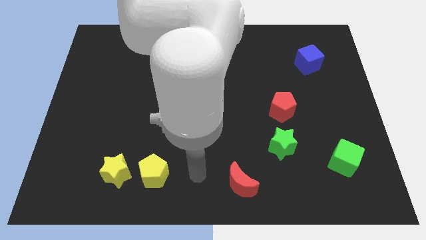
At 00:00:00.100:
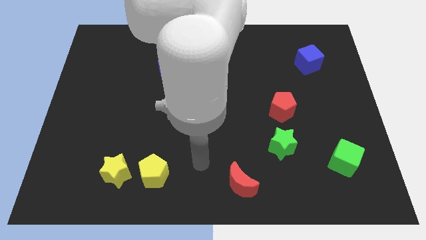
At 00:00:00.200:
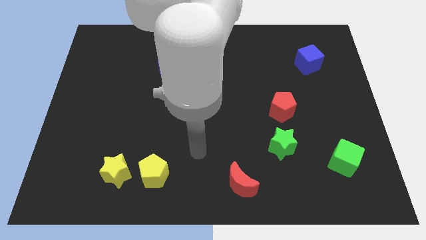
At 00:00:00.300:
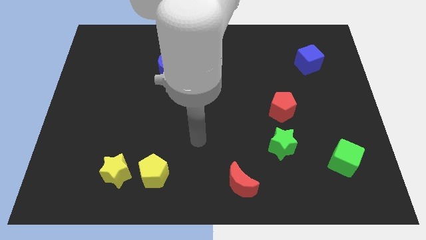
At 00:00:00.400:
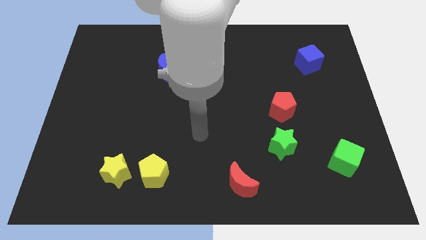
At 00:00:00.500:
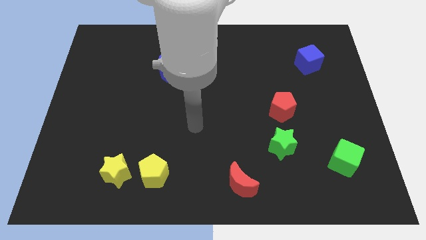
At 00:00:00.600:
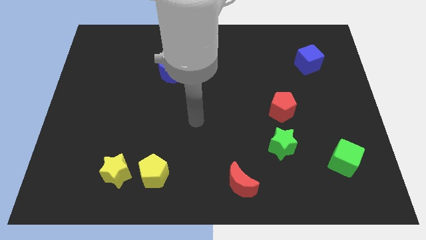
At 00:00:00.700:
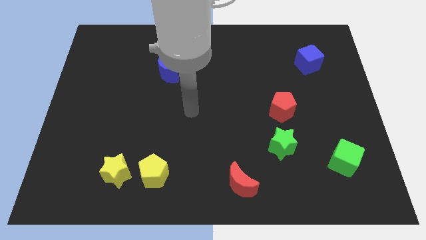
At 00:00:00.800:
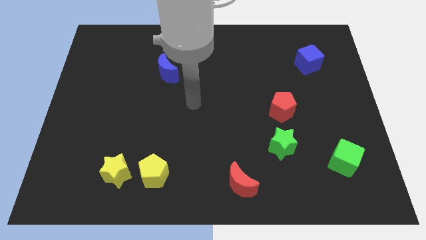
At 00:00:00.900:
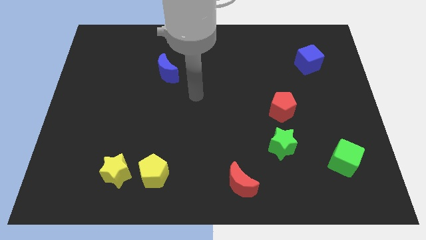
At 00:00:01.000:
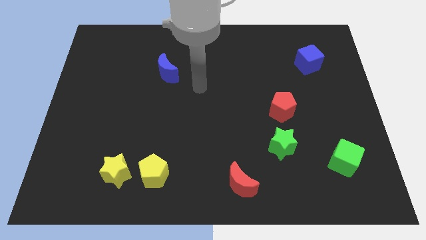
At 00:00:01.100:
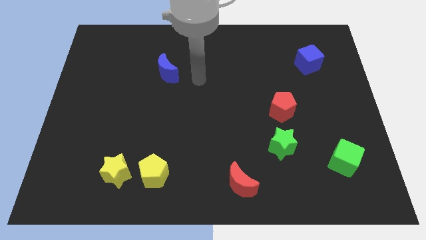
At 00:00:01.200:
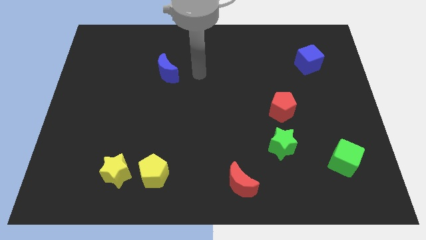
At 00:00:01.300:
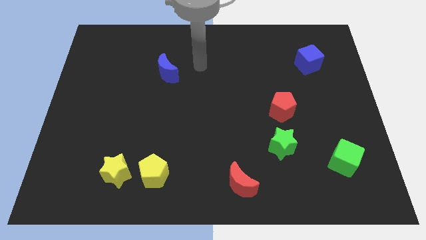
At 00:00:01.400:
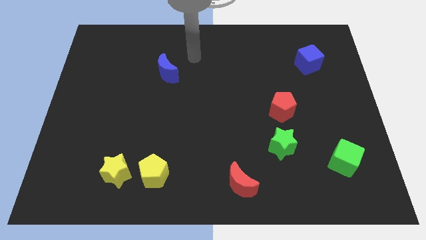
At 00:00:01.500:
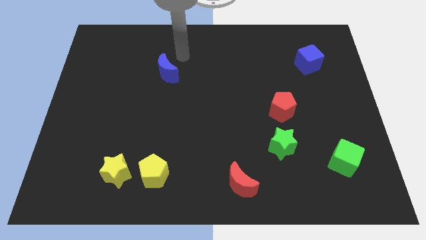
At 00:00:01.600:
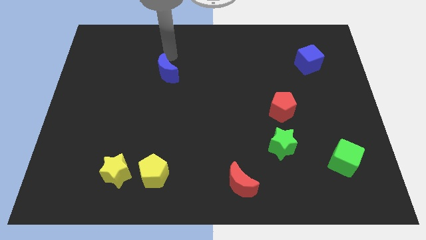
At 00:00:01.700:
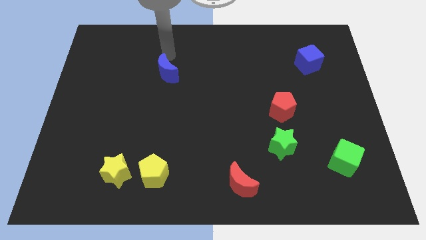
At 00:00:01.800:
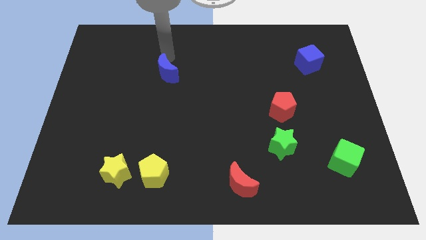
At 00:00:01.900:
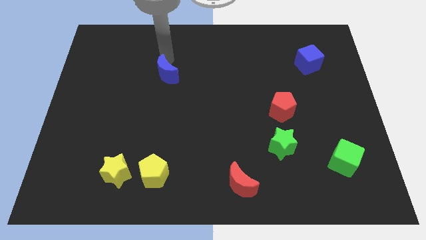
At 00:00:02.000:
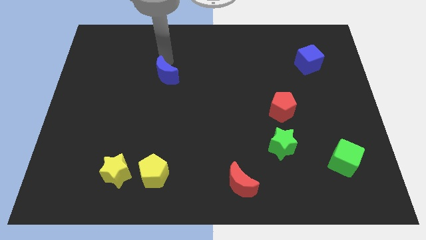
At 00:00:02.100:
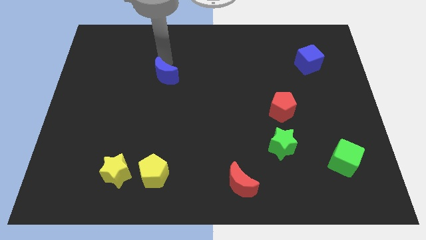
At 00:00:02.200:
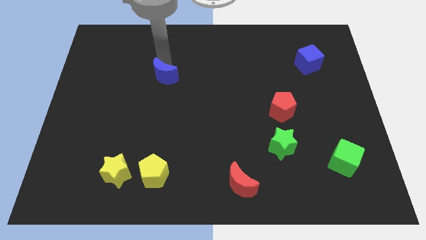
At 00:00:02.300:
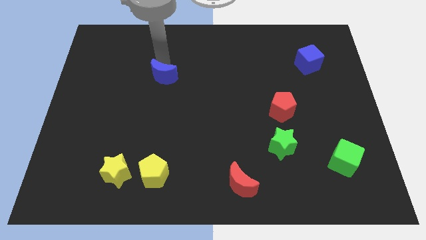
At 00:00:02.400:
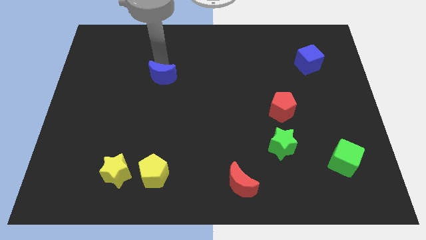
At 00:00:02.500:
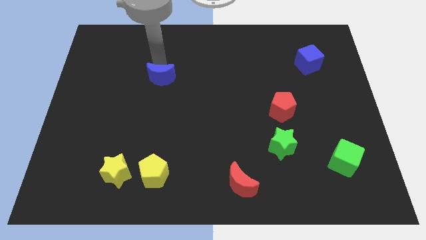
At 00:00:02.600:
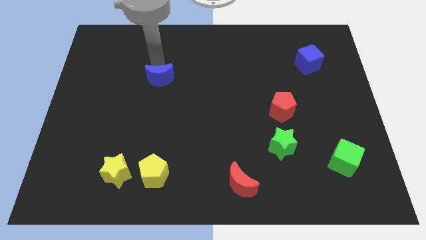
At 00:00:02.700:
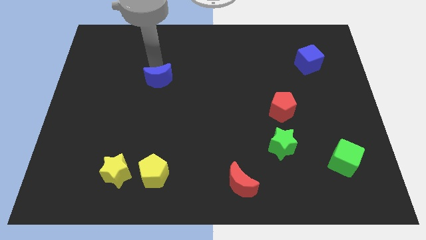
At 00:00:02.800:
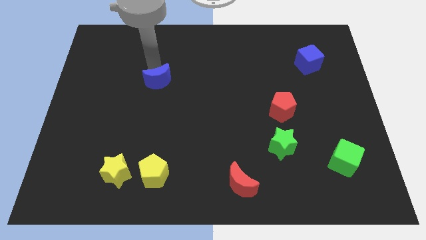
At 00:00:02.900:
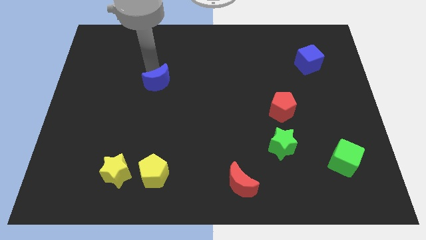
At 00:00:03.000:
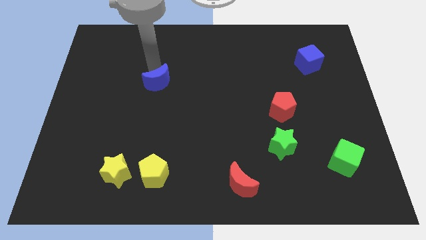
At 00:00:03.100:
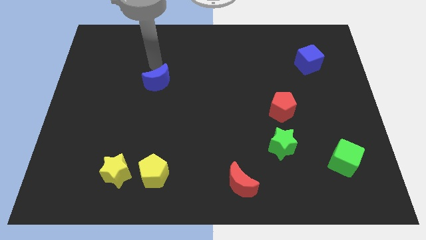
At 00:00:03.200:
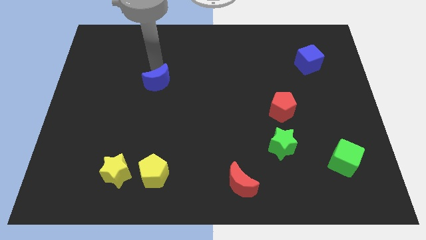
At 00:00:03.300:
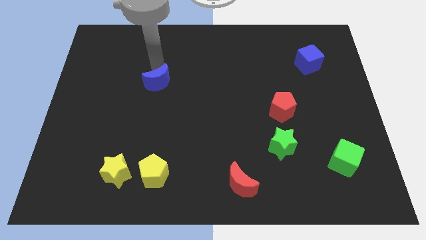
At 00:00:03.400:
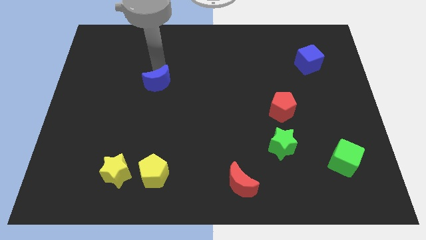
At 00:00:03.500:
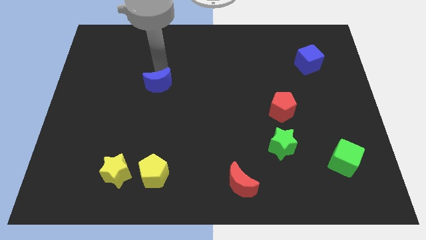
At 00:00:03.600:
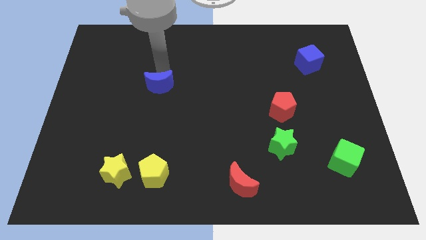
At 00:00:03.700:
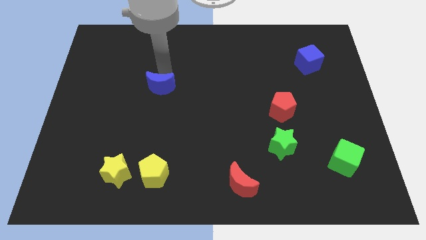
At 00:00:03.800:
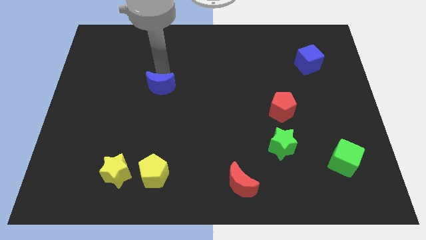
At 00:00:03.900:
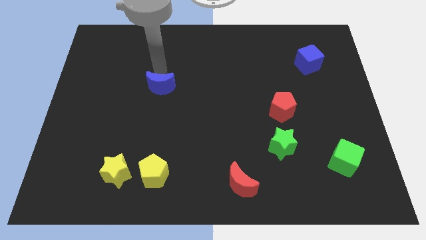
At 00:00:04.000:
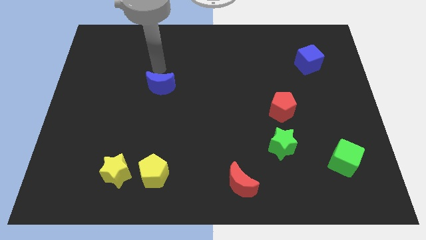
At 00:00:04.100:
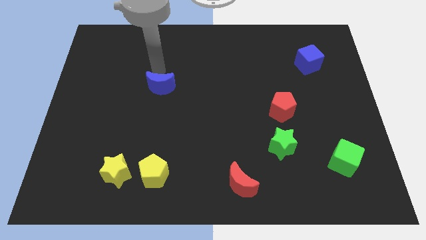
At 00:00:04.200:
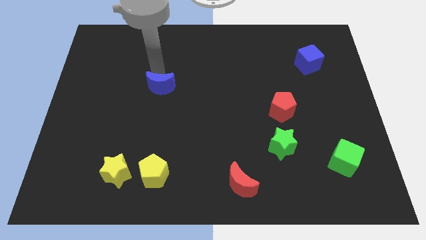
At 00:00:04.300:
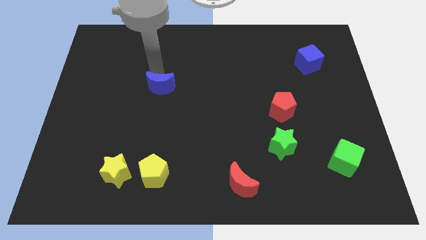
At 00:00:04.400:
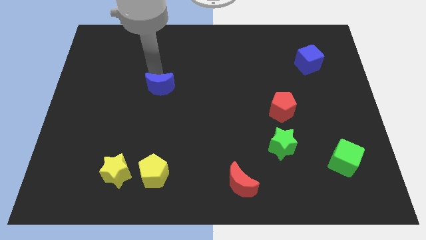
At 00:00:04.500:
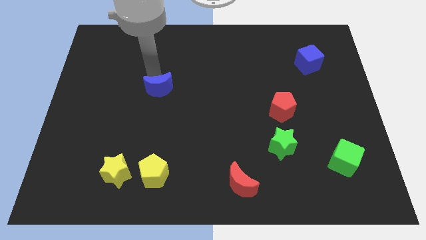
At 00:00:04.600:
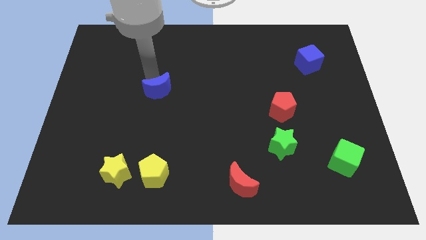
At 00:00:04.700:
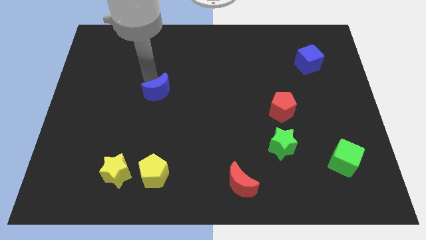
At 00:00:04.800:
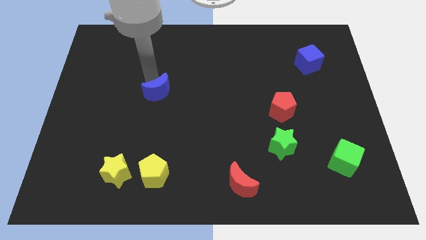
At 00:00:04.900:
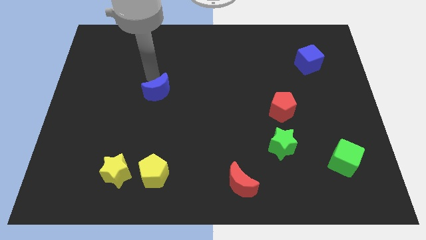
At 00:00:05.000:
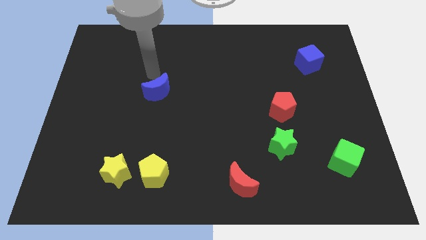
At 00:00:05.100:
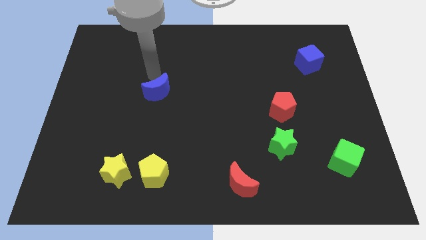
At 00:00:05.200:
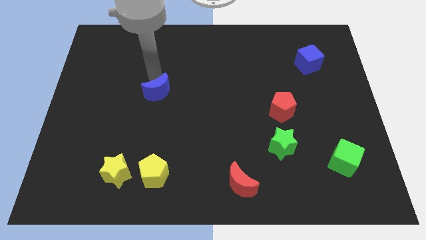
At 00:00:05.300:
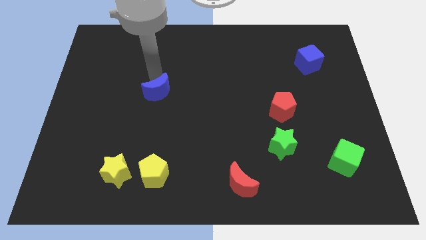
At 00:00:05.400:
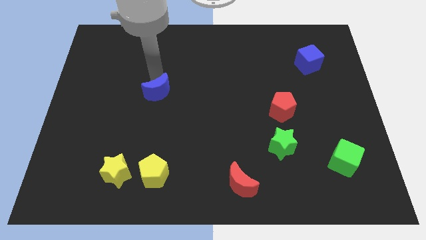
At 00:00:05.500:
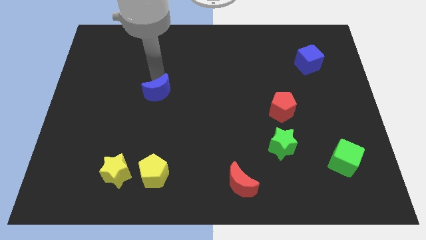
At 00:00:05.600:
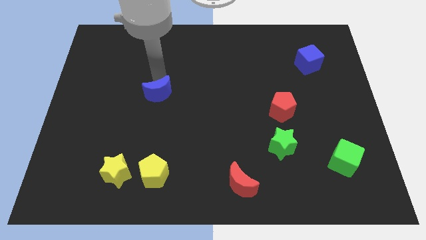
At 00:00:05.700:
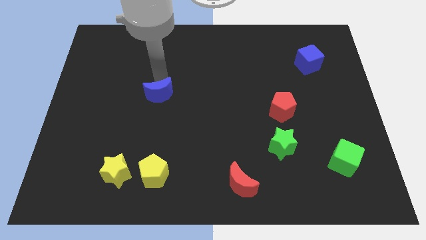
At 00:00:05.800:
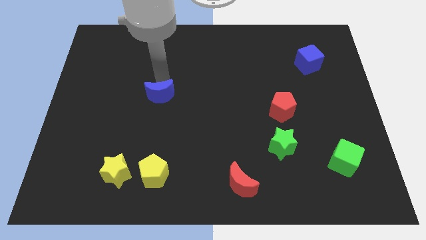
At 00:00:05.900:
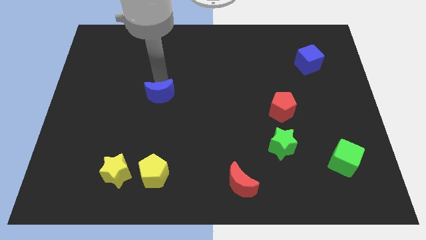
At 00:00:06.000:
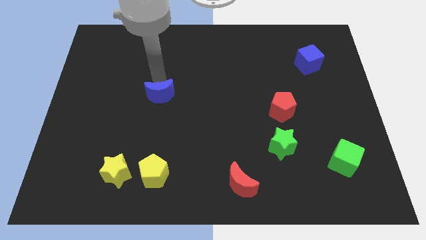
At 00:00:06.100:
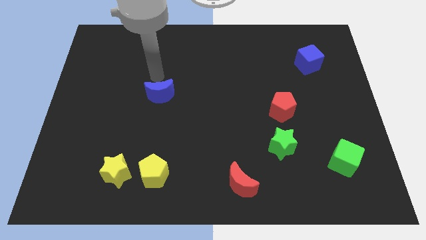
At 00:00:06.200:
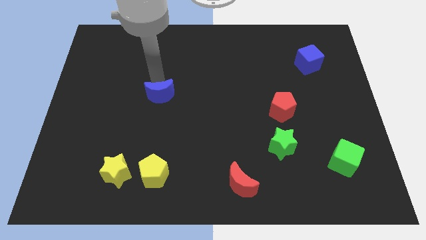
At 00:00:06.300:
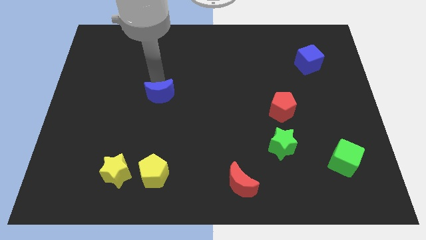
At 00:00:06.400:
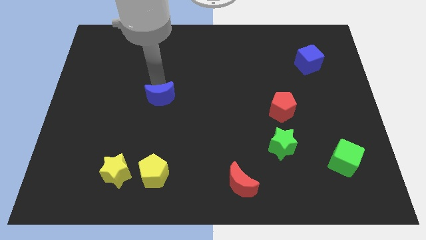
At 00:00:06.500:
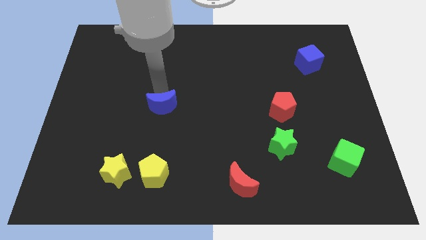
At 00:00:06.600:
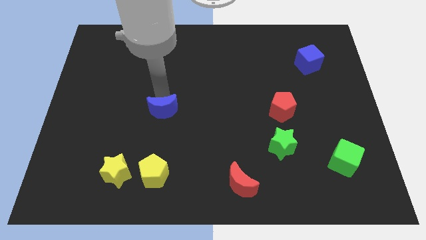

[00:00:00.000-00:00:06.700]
push the blue moon to the top of the yellow pentagon

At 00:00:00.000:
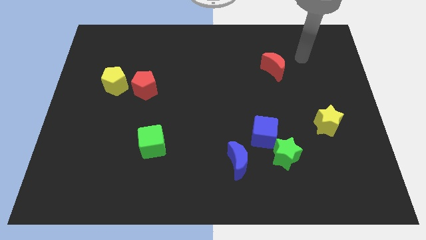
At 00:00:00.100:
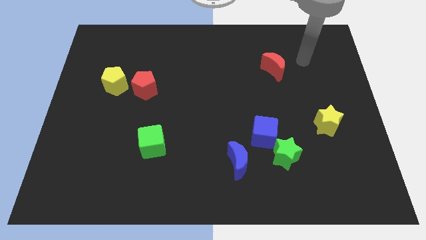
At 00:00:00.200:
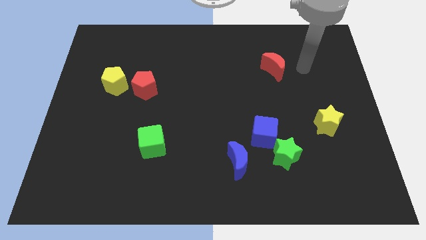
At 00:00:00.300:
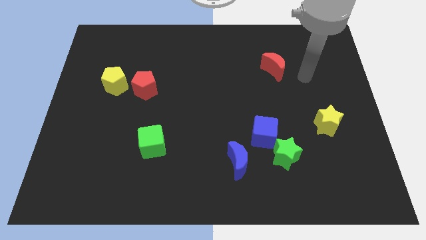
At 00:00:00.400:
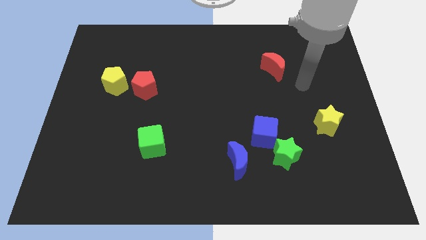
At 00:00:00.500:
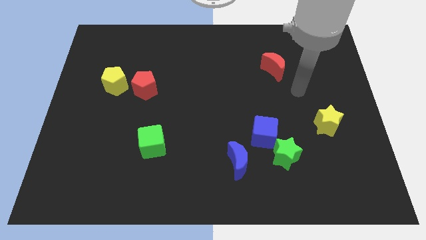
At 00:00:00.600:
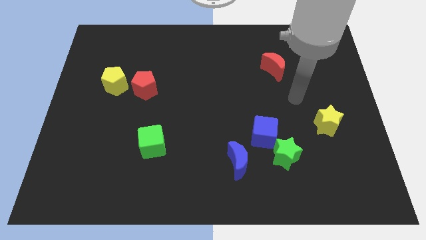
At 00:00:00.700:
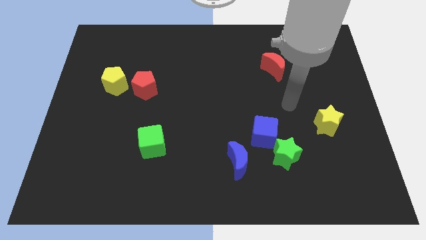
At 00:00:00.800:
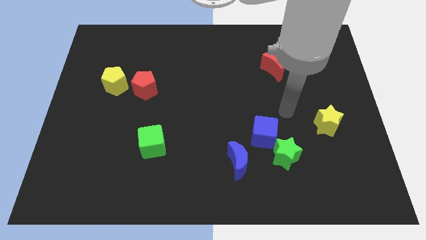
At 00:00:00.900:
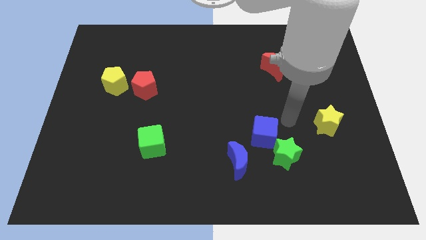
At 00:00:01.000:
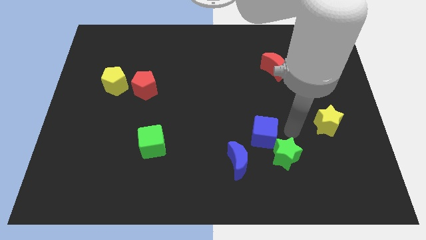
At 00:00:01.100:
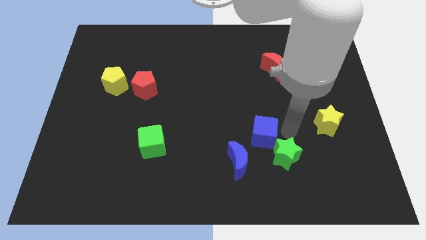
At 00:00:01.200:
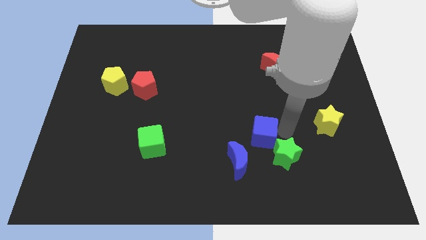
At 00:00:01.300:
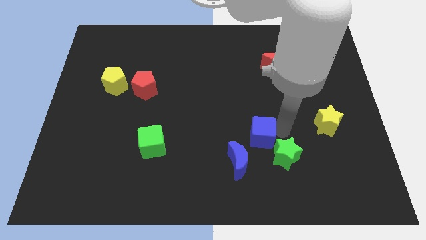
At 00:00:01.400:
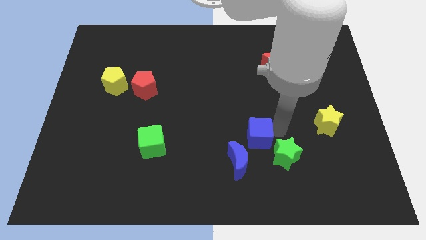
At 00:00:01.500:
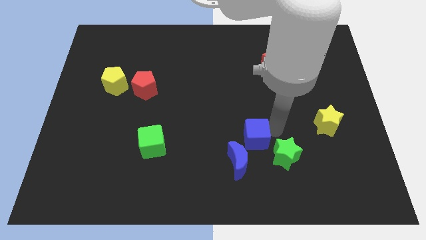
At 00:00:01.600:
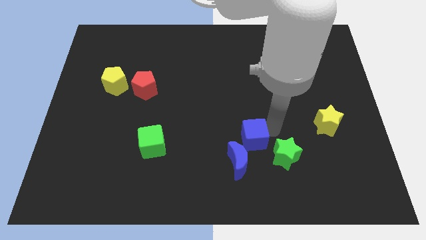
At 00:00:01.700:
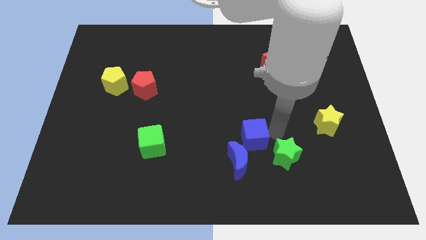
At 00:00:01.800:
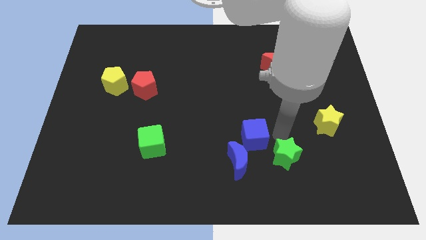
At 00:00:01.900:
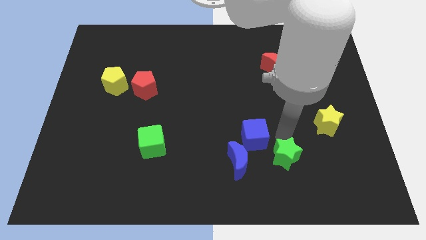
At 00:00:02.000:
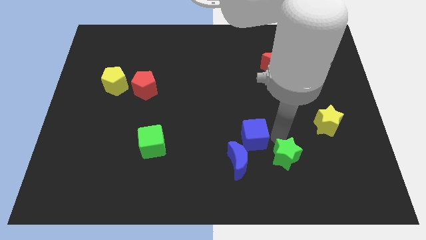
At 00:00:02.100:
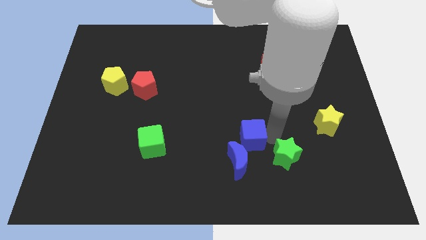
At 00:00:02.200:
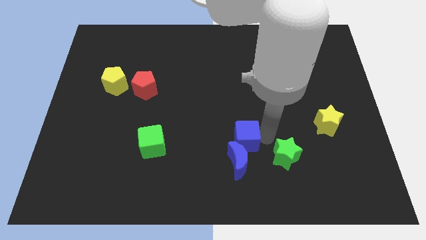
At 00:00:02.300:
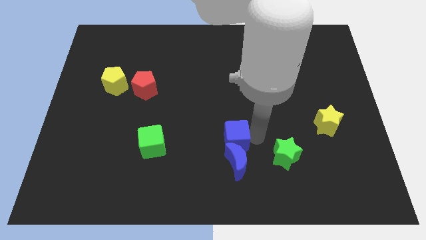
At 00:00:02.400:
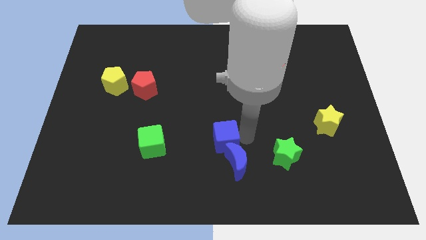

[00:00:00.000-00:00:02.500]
put the blue cube right of the green cube
